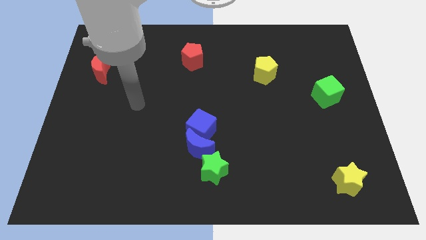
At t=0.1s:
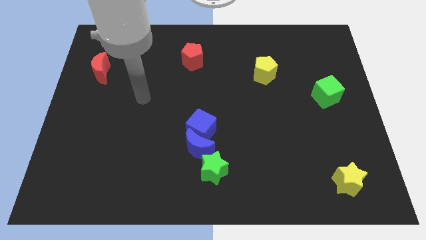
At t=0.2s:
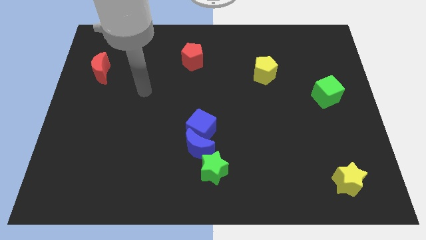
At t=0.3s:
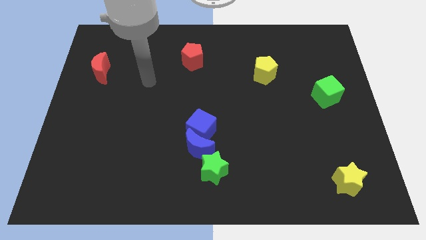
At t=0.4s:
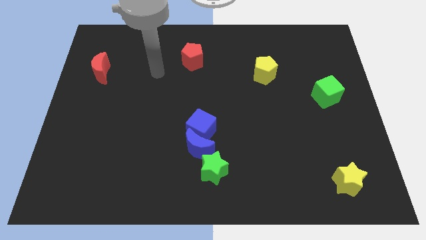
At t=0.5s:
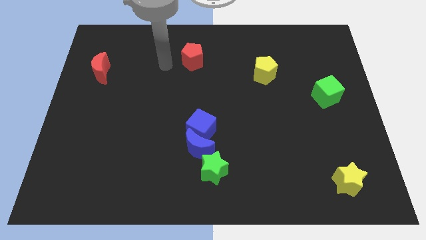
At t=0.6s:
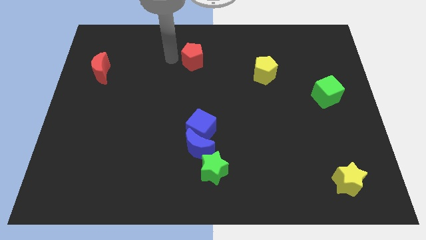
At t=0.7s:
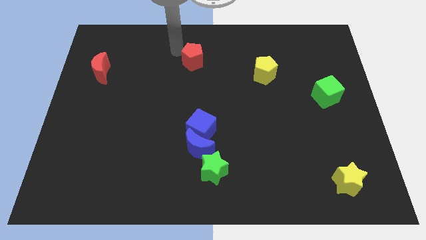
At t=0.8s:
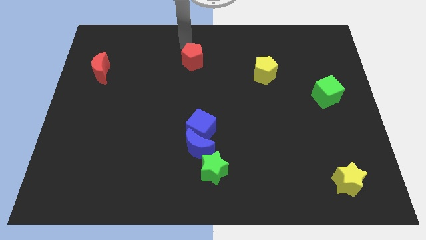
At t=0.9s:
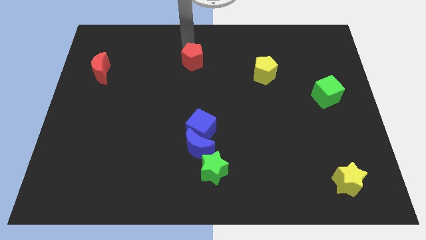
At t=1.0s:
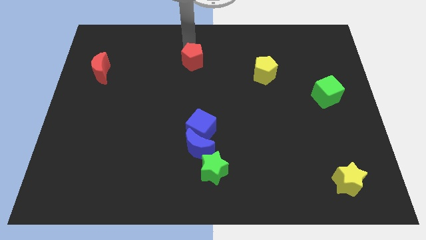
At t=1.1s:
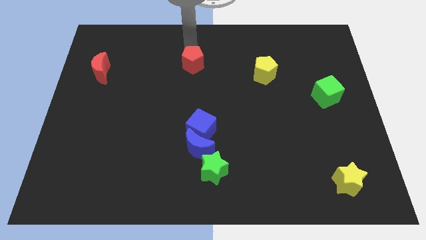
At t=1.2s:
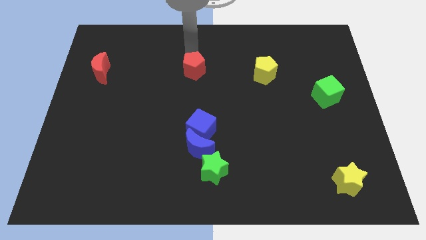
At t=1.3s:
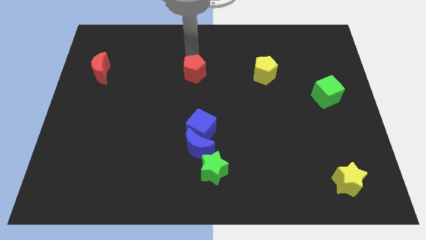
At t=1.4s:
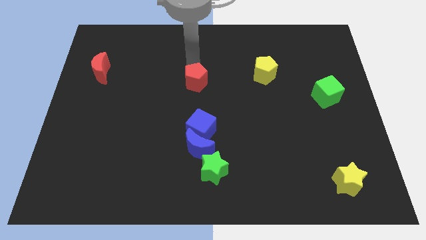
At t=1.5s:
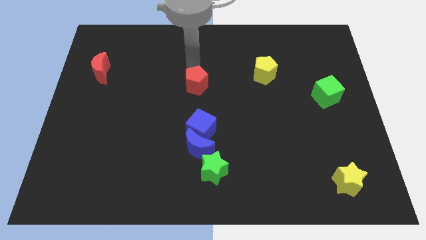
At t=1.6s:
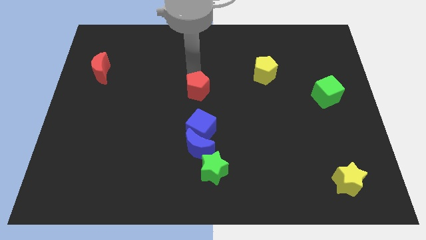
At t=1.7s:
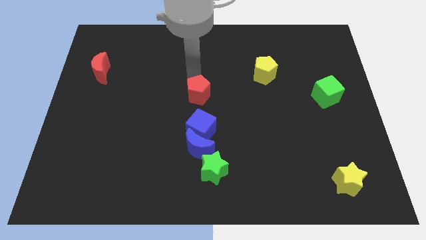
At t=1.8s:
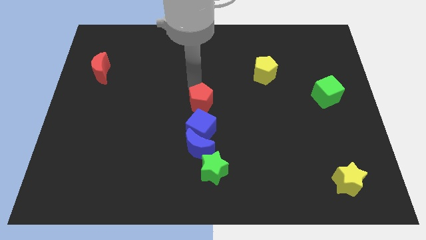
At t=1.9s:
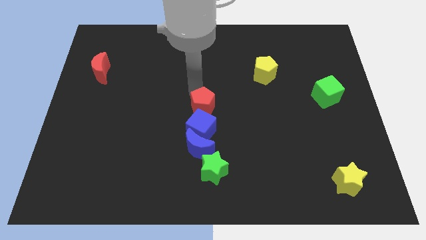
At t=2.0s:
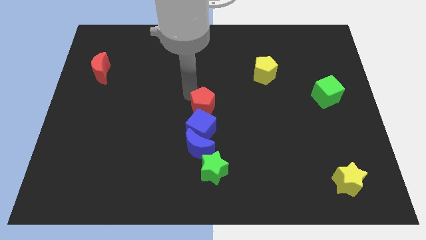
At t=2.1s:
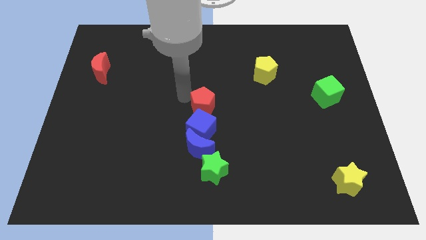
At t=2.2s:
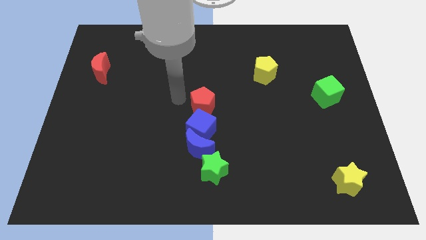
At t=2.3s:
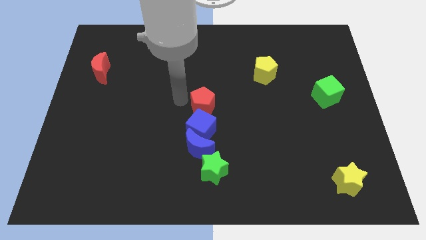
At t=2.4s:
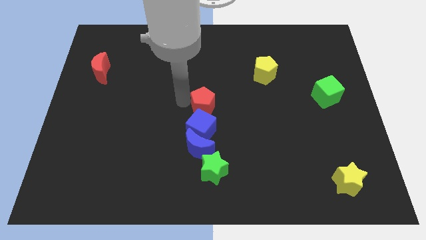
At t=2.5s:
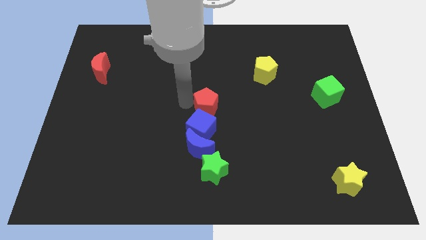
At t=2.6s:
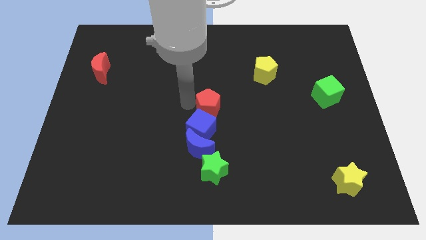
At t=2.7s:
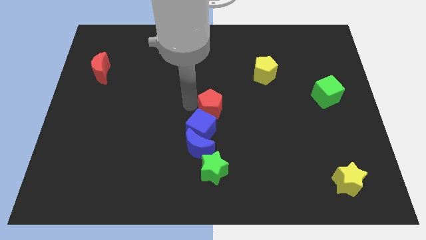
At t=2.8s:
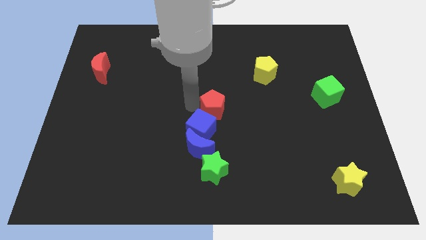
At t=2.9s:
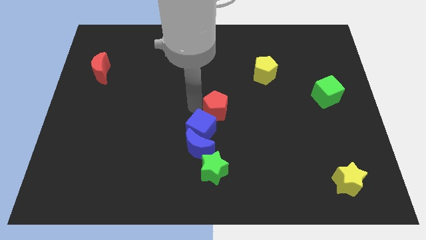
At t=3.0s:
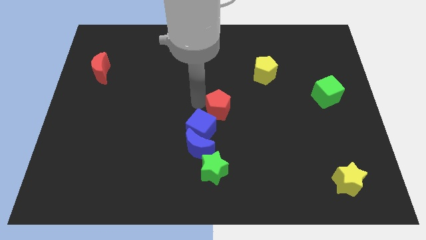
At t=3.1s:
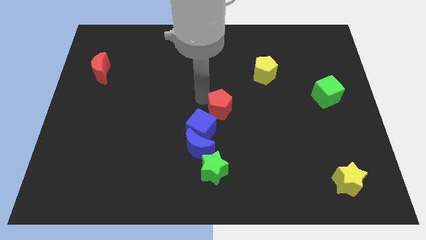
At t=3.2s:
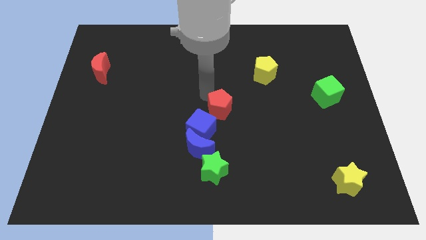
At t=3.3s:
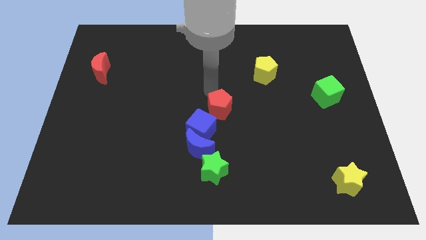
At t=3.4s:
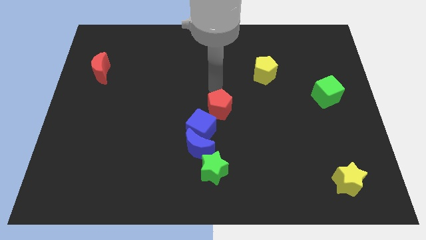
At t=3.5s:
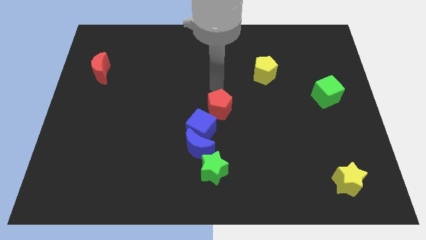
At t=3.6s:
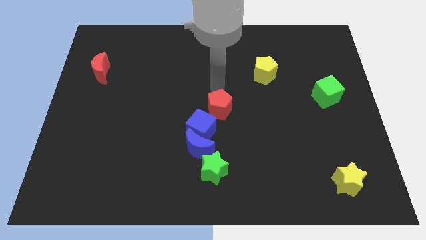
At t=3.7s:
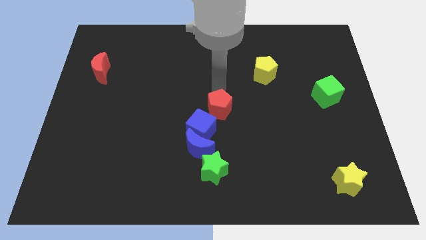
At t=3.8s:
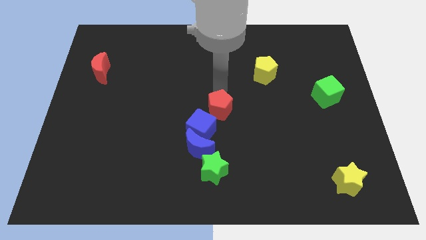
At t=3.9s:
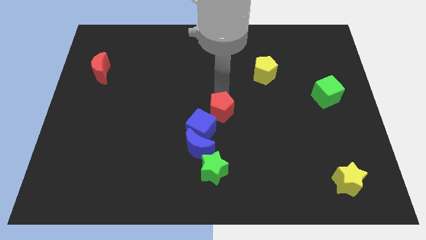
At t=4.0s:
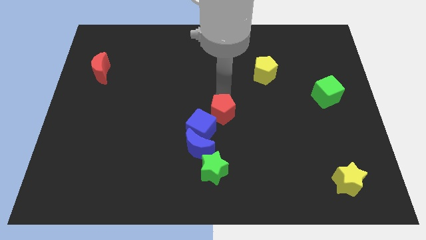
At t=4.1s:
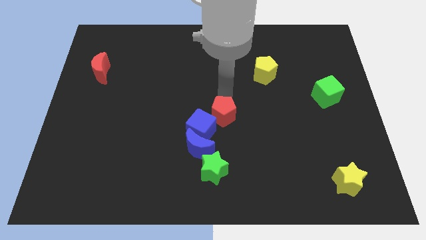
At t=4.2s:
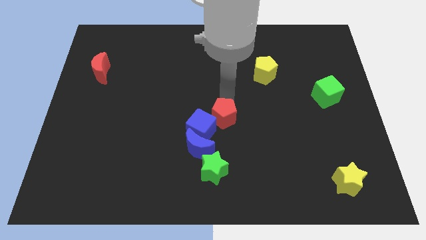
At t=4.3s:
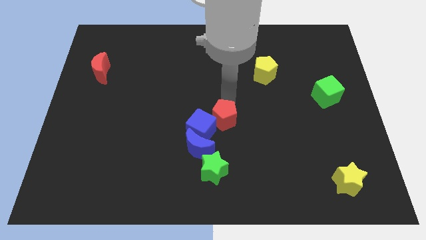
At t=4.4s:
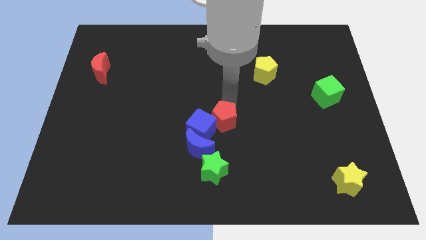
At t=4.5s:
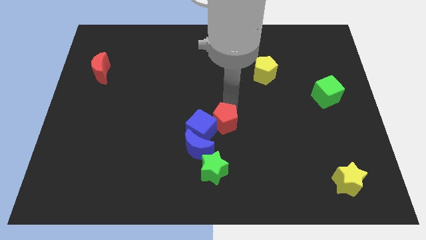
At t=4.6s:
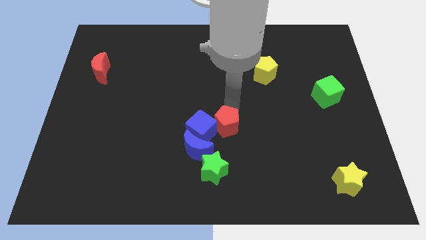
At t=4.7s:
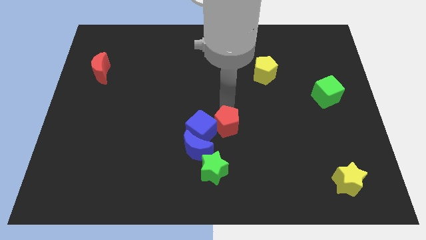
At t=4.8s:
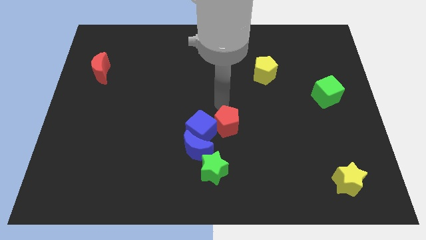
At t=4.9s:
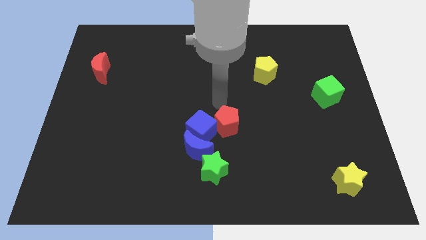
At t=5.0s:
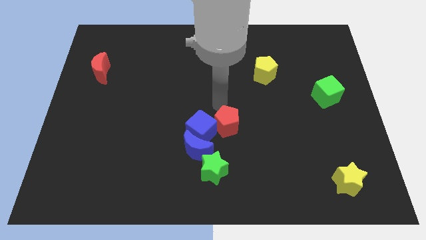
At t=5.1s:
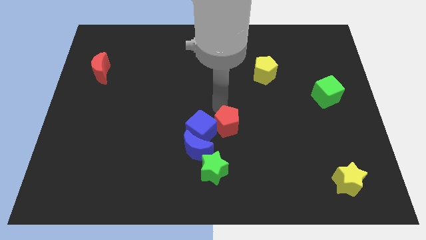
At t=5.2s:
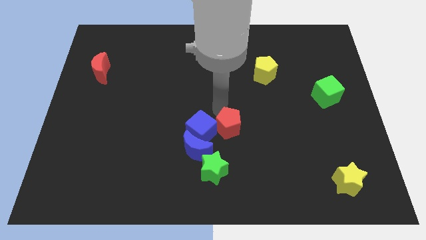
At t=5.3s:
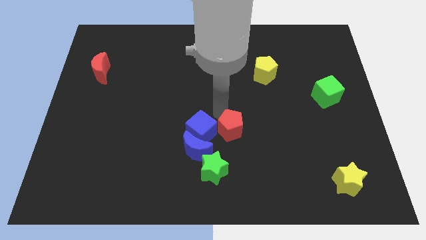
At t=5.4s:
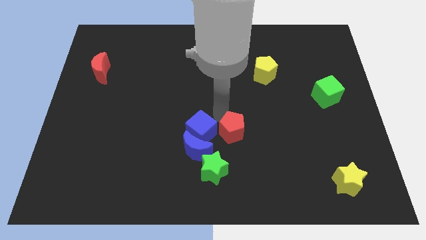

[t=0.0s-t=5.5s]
move the red pentagon diagonally up and to the right of the green star

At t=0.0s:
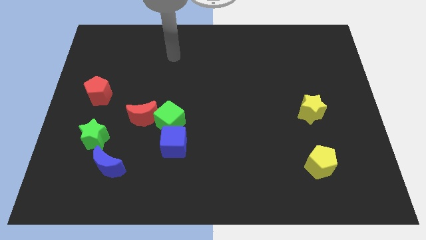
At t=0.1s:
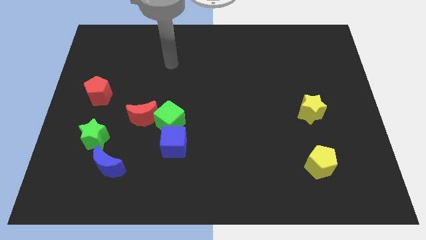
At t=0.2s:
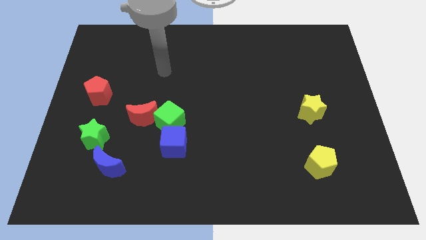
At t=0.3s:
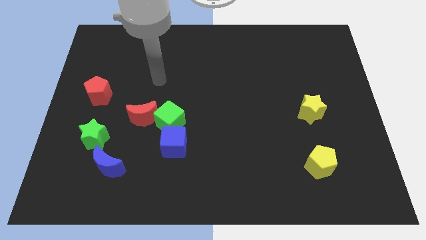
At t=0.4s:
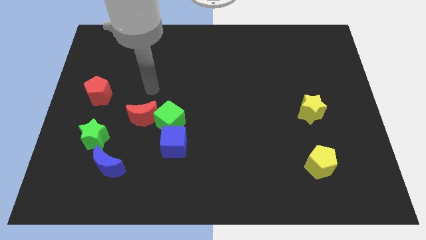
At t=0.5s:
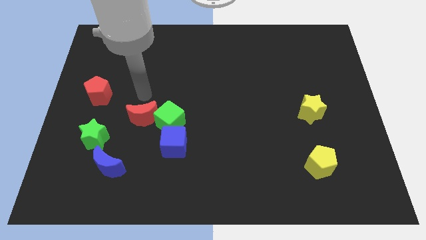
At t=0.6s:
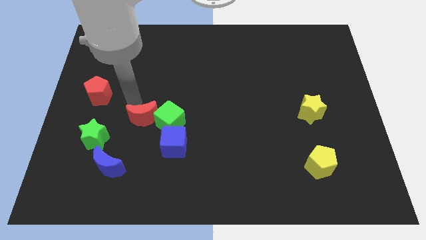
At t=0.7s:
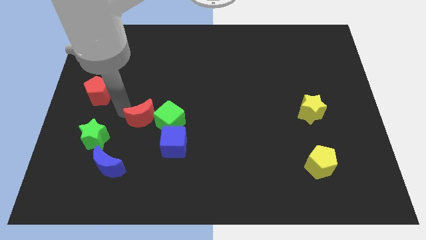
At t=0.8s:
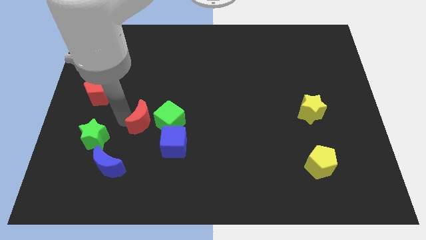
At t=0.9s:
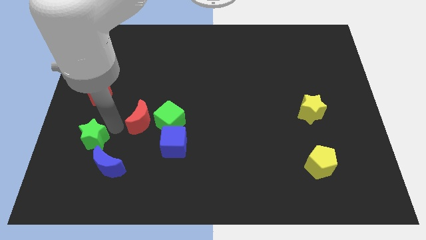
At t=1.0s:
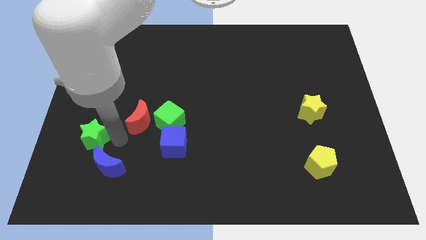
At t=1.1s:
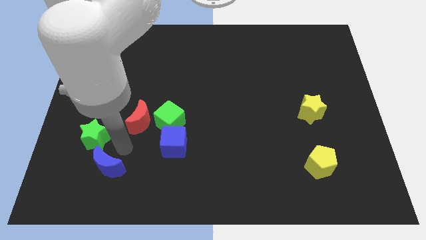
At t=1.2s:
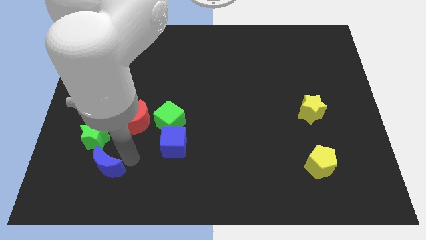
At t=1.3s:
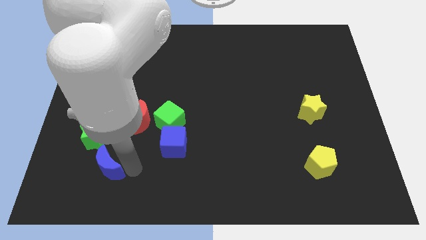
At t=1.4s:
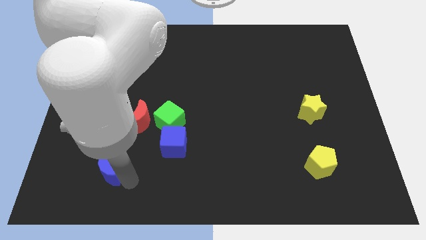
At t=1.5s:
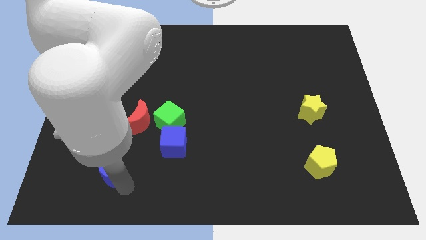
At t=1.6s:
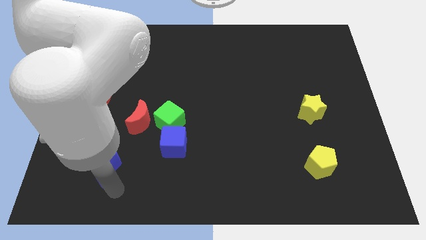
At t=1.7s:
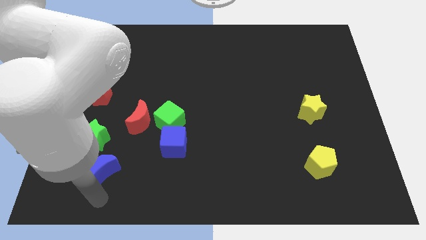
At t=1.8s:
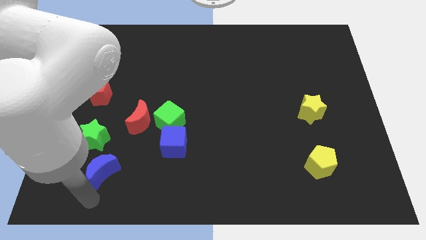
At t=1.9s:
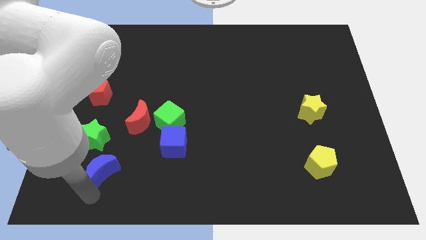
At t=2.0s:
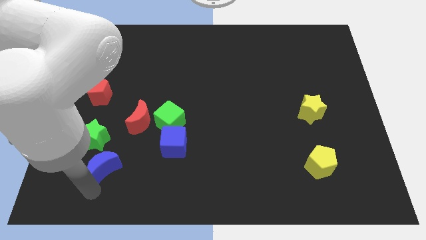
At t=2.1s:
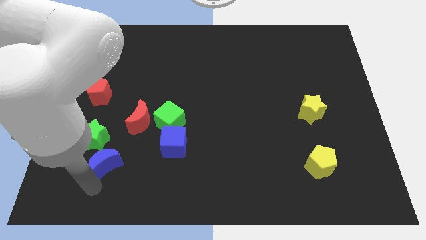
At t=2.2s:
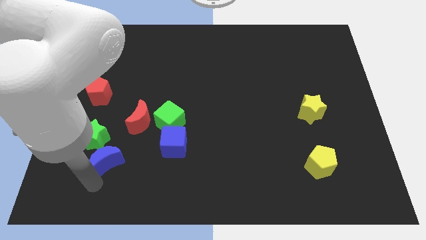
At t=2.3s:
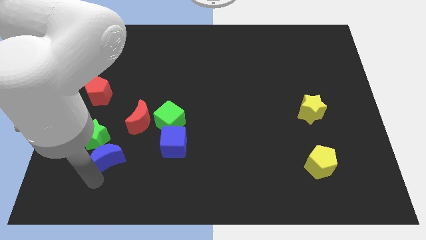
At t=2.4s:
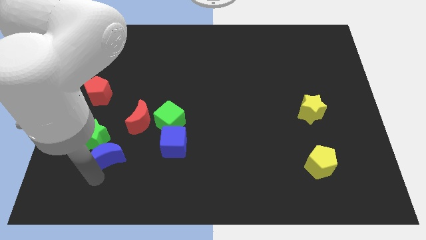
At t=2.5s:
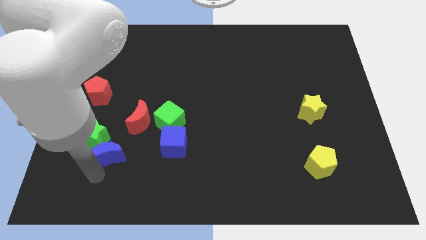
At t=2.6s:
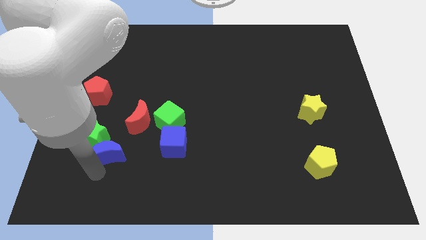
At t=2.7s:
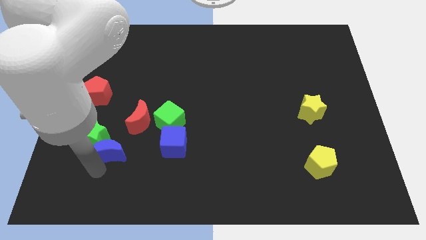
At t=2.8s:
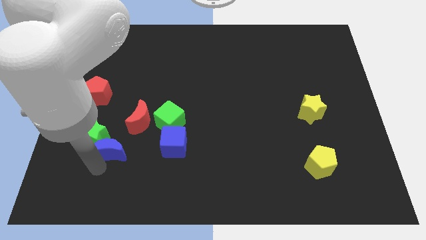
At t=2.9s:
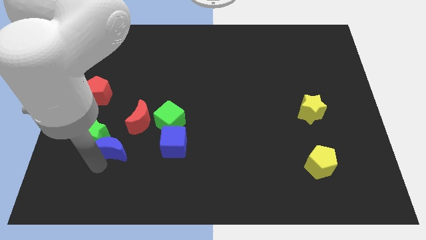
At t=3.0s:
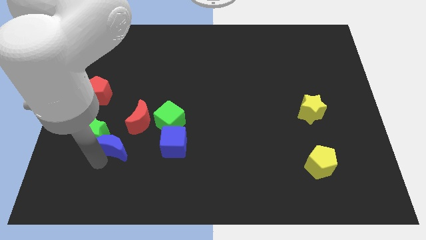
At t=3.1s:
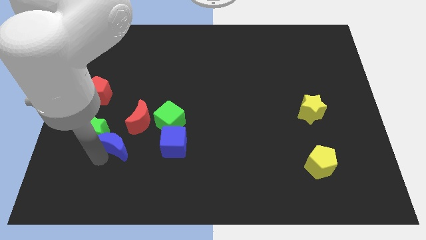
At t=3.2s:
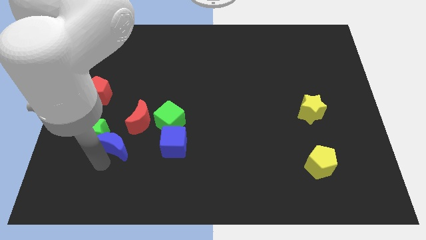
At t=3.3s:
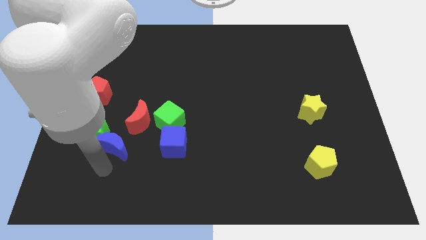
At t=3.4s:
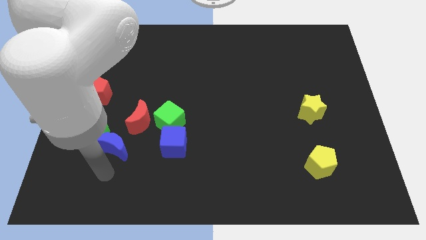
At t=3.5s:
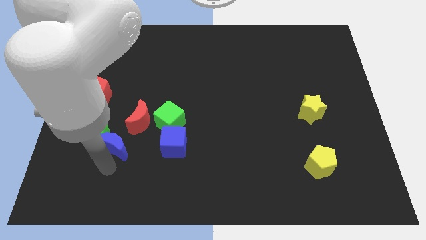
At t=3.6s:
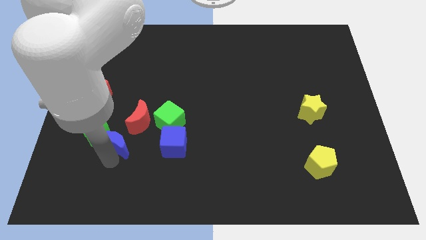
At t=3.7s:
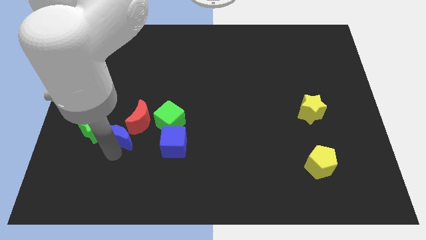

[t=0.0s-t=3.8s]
move the blue moon just left of the green cube
